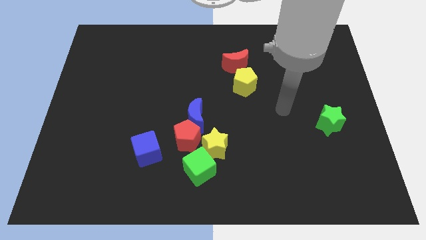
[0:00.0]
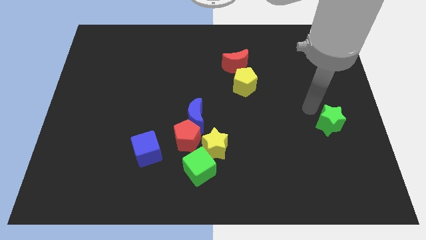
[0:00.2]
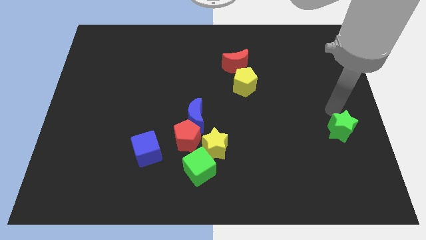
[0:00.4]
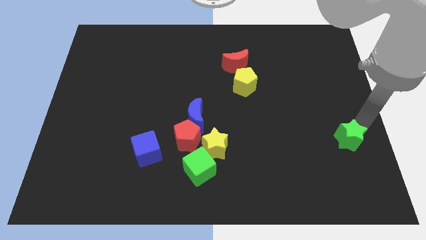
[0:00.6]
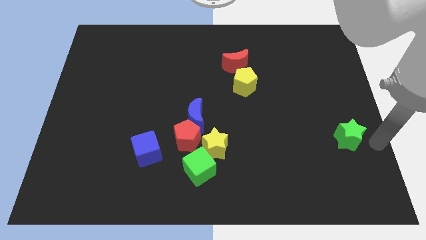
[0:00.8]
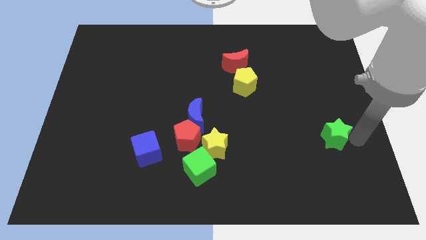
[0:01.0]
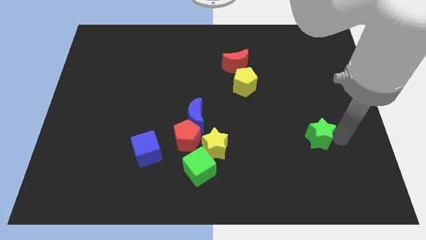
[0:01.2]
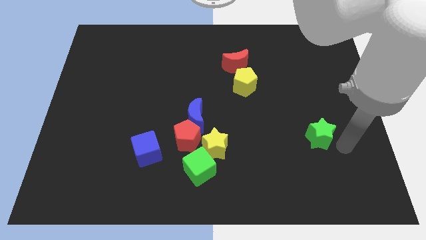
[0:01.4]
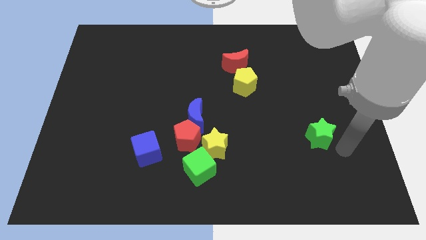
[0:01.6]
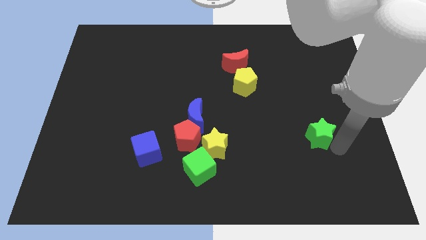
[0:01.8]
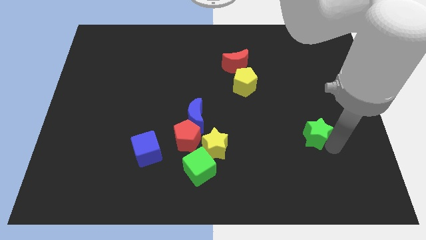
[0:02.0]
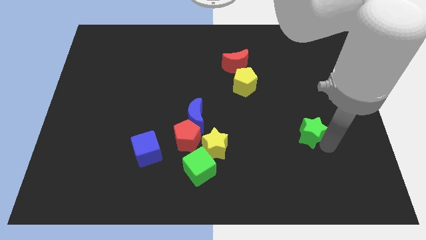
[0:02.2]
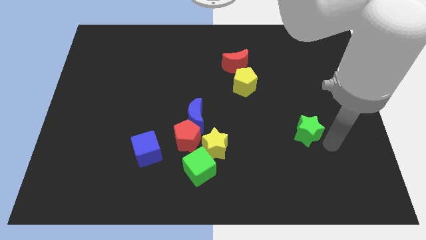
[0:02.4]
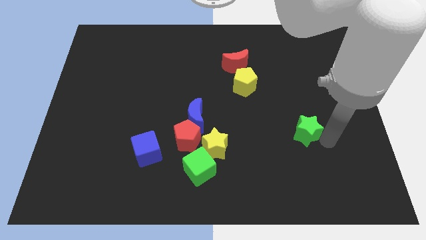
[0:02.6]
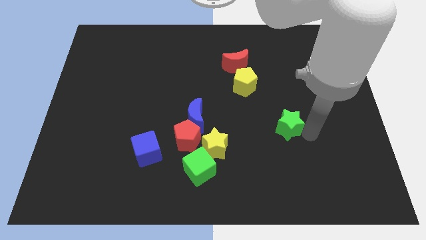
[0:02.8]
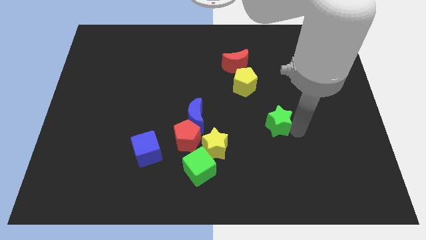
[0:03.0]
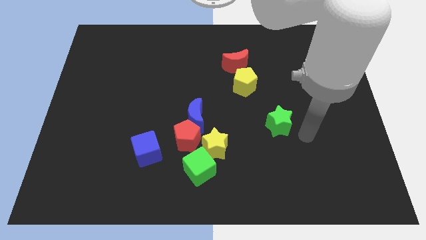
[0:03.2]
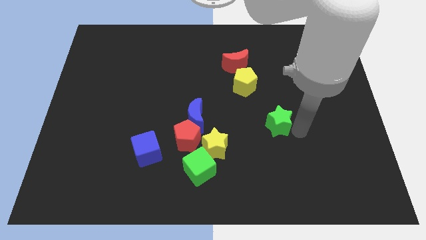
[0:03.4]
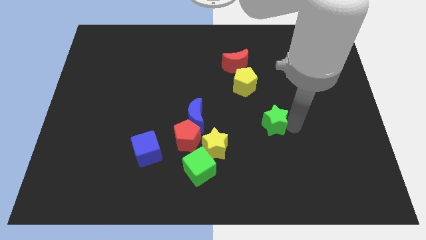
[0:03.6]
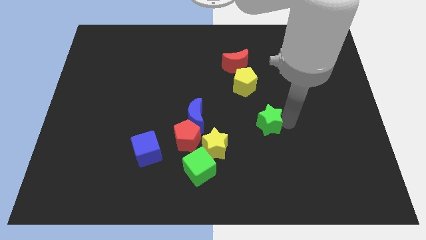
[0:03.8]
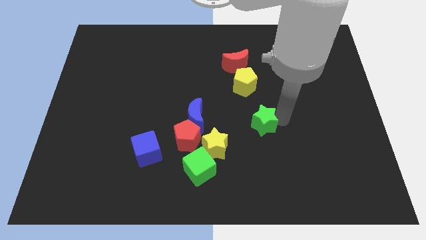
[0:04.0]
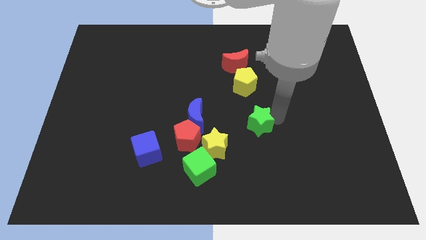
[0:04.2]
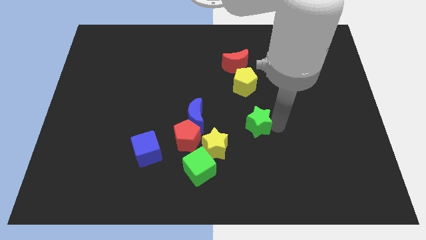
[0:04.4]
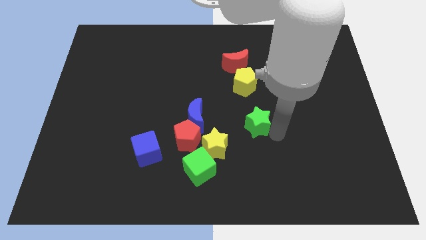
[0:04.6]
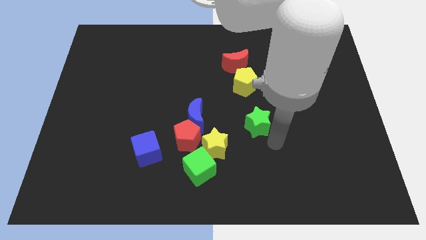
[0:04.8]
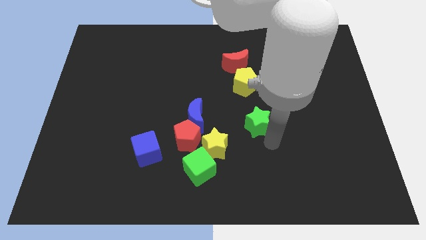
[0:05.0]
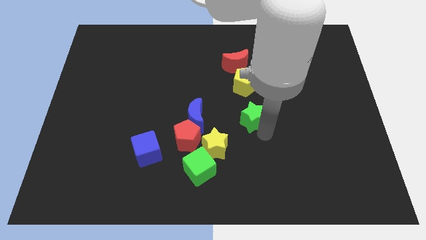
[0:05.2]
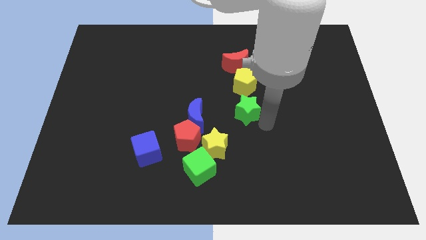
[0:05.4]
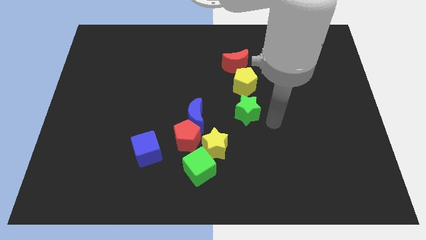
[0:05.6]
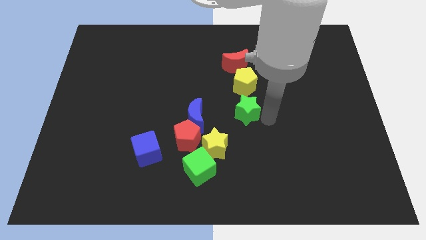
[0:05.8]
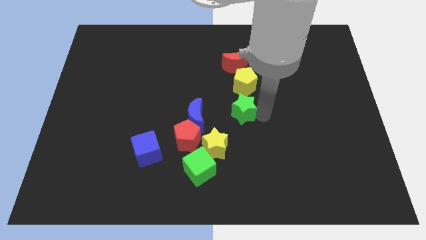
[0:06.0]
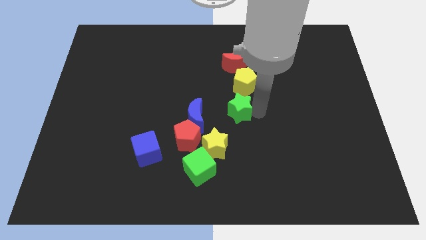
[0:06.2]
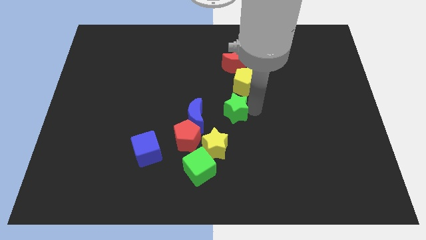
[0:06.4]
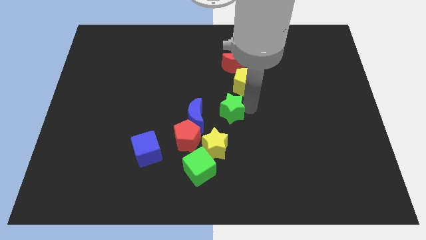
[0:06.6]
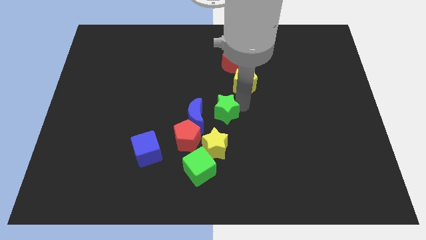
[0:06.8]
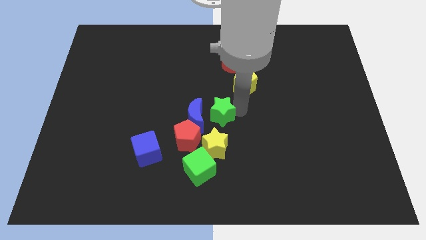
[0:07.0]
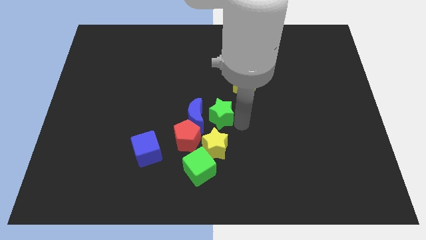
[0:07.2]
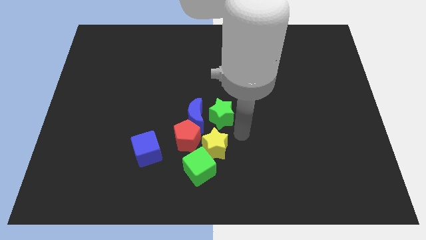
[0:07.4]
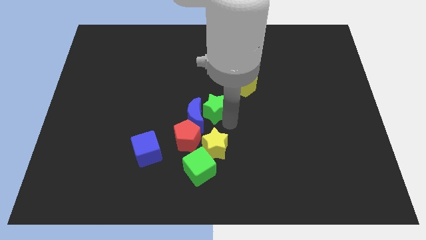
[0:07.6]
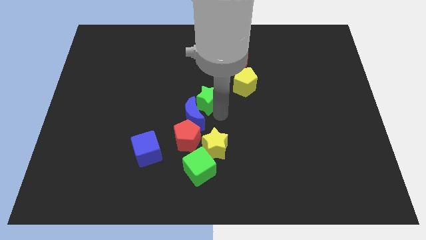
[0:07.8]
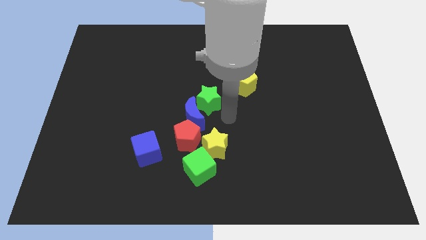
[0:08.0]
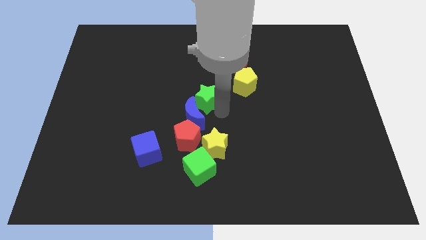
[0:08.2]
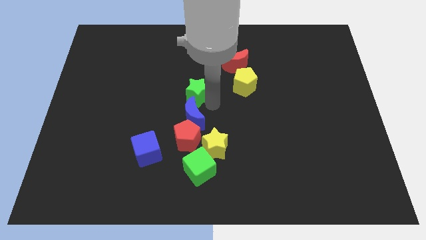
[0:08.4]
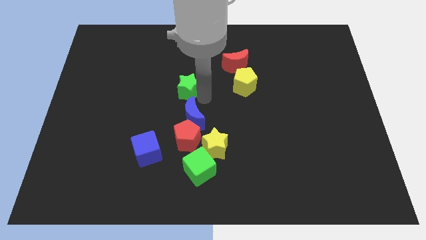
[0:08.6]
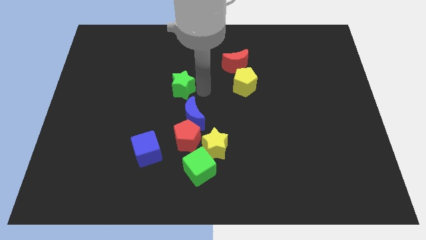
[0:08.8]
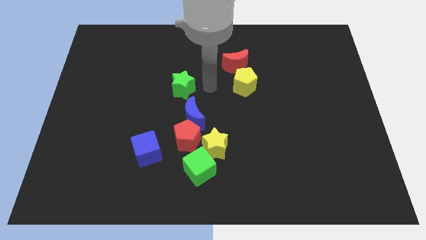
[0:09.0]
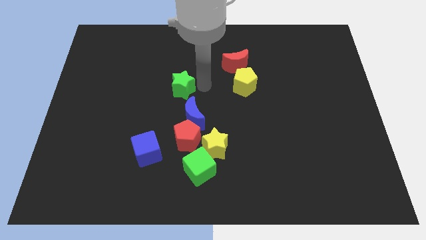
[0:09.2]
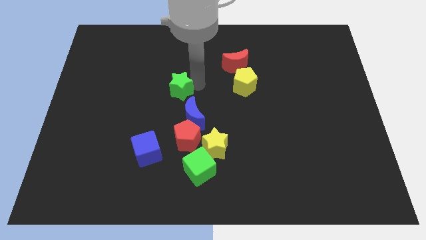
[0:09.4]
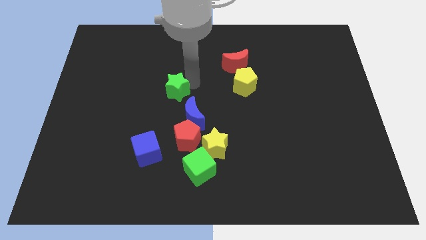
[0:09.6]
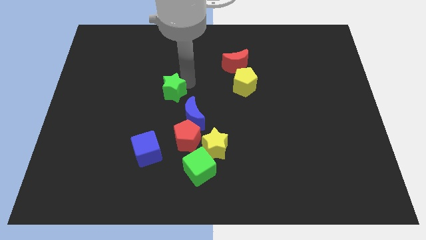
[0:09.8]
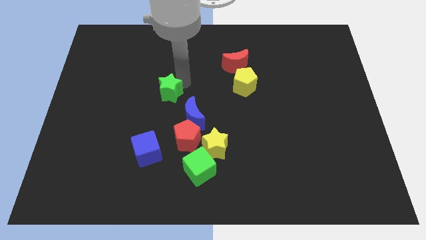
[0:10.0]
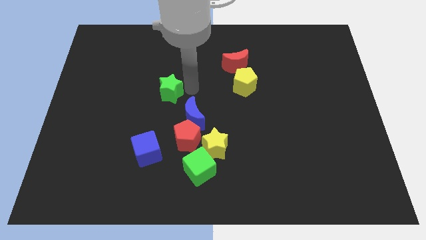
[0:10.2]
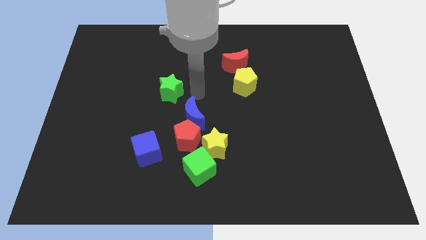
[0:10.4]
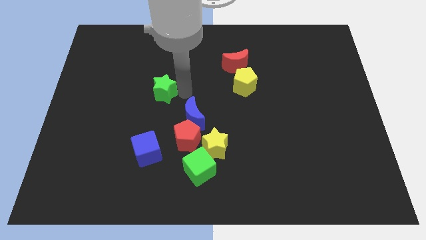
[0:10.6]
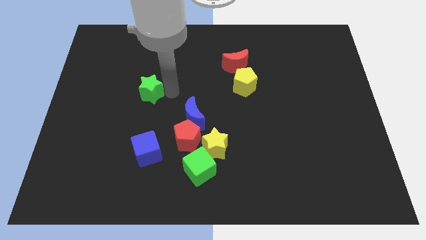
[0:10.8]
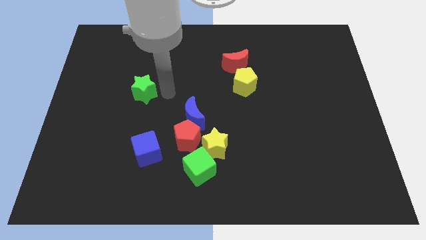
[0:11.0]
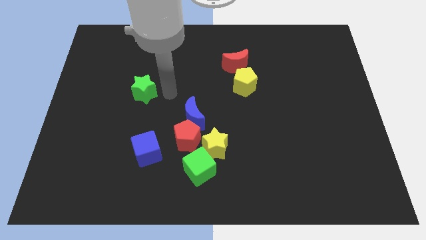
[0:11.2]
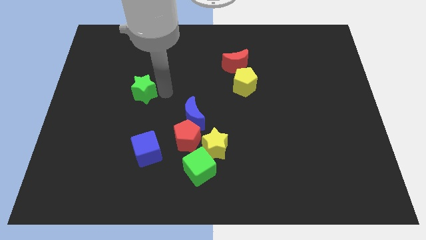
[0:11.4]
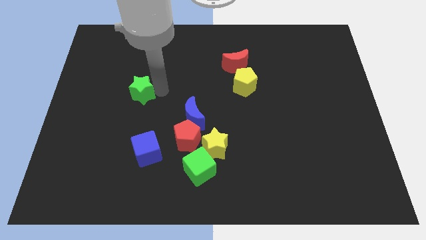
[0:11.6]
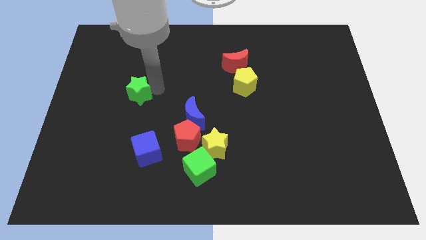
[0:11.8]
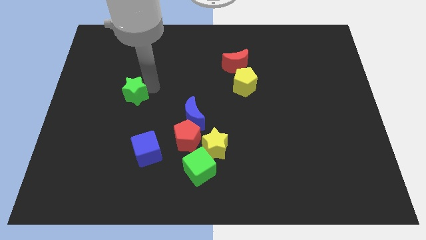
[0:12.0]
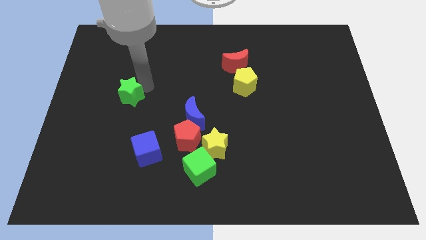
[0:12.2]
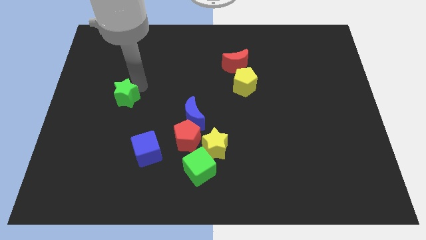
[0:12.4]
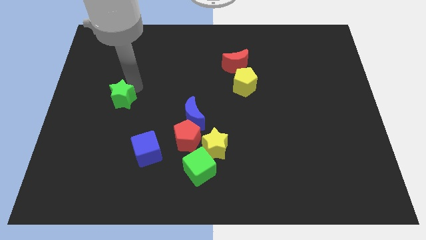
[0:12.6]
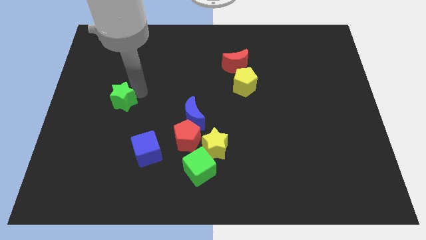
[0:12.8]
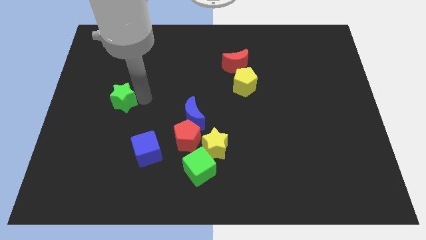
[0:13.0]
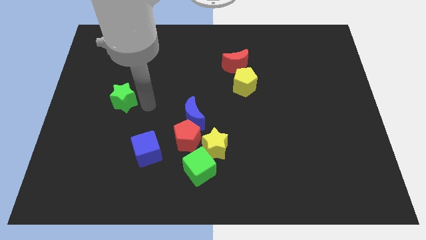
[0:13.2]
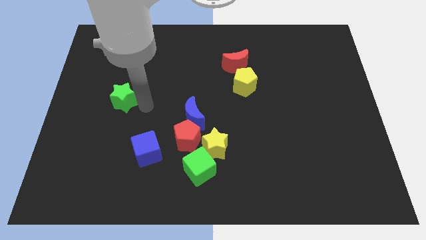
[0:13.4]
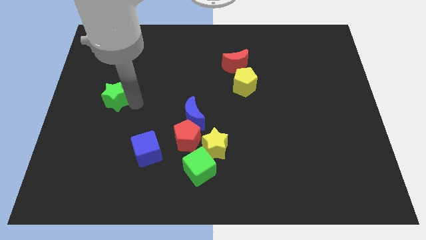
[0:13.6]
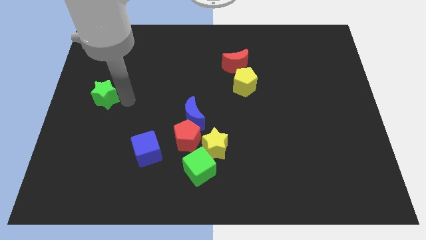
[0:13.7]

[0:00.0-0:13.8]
slide the green star to the center left
